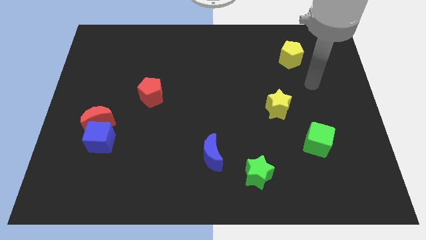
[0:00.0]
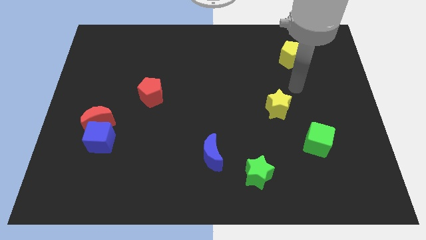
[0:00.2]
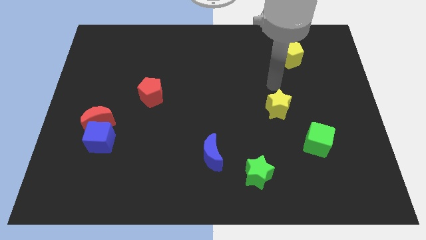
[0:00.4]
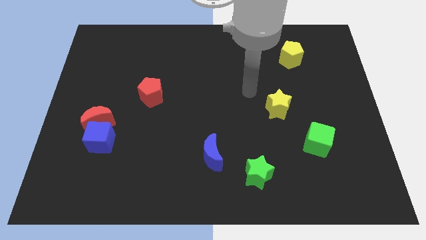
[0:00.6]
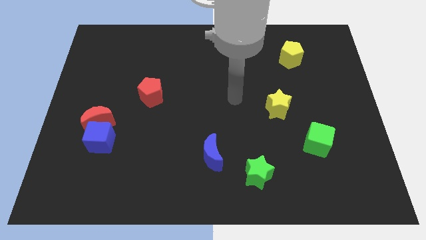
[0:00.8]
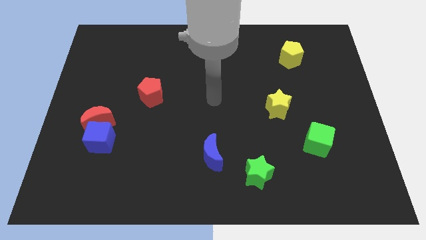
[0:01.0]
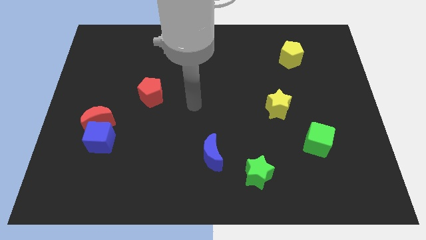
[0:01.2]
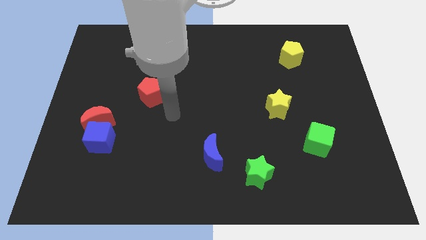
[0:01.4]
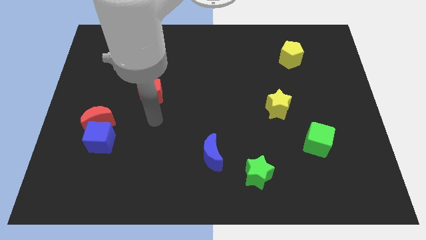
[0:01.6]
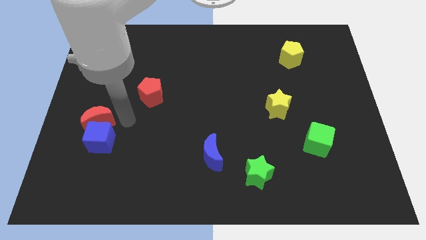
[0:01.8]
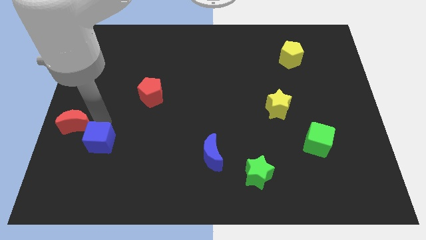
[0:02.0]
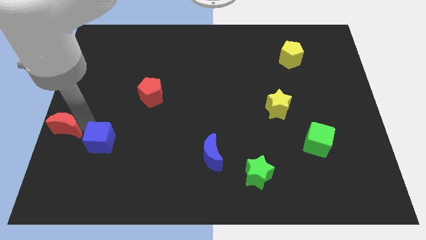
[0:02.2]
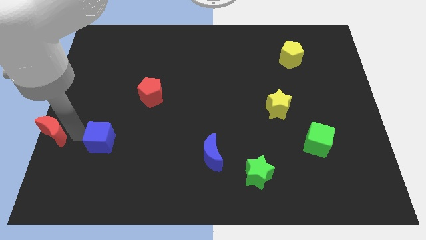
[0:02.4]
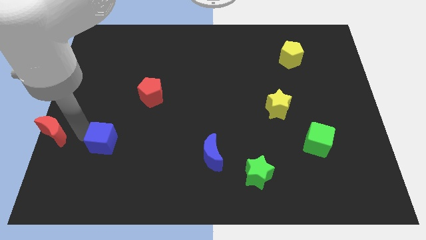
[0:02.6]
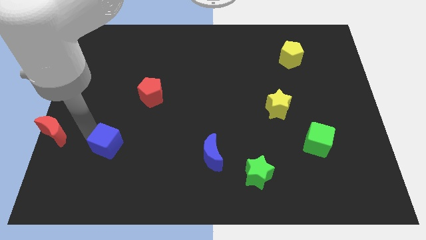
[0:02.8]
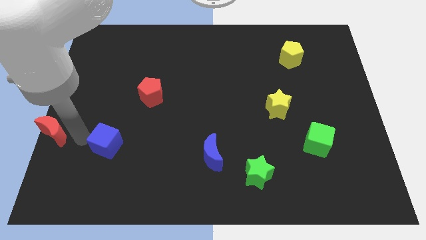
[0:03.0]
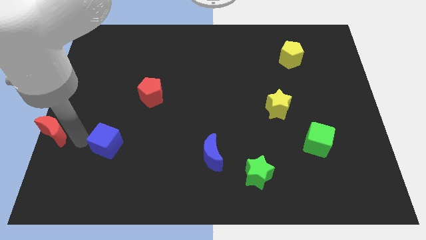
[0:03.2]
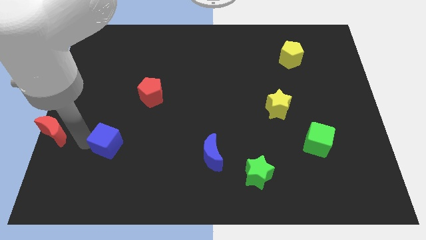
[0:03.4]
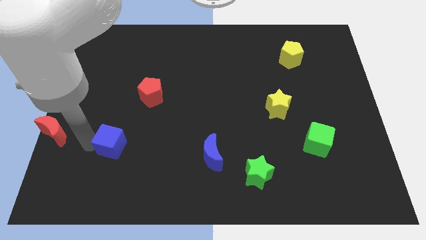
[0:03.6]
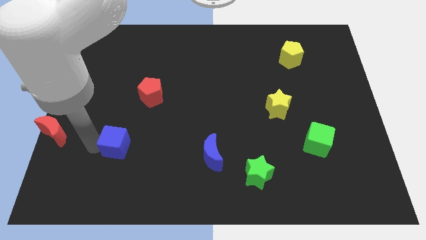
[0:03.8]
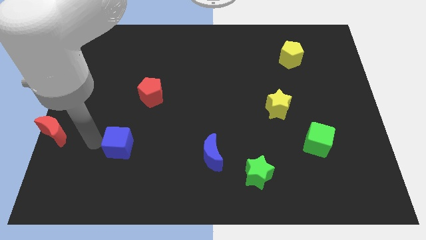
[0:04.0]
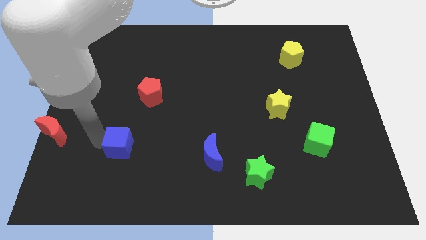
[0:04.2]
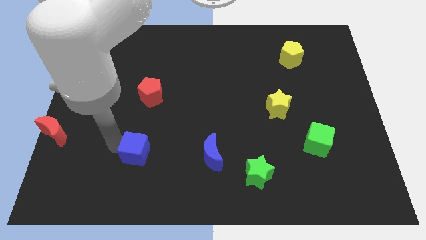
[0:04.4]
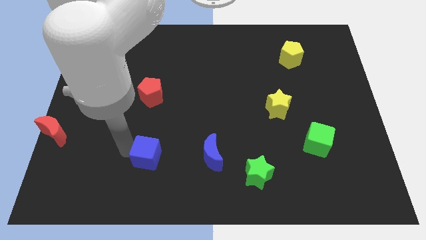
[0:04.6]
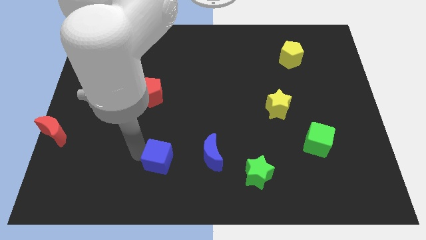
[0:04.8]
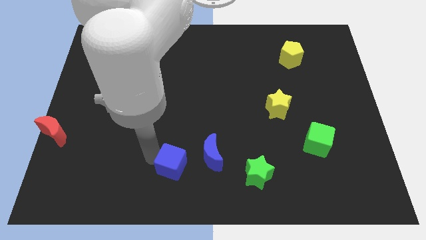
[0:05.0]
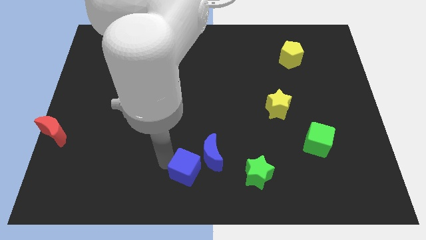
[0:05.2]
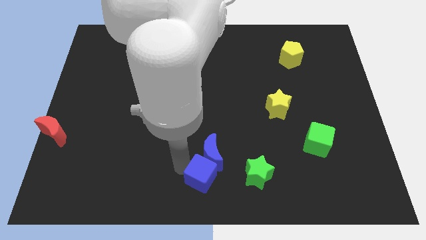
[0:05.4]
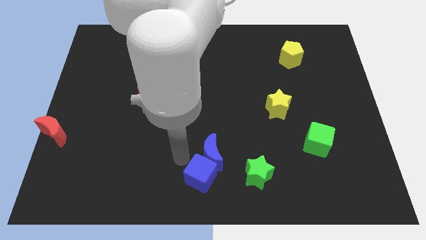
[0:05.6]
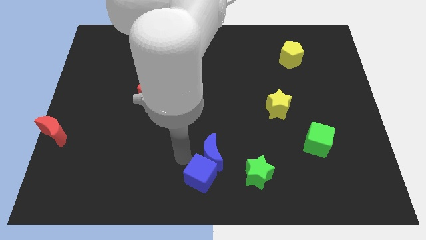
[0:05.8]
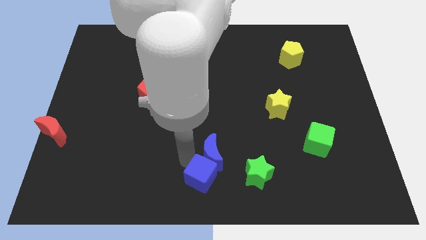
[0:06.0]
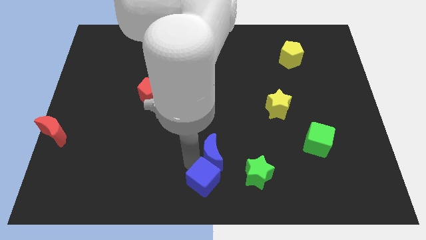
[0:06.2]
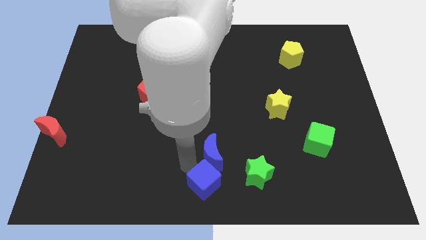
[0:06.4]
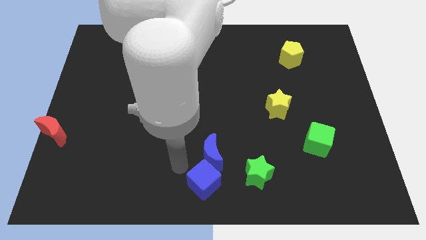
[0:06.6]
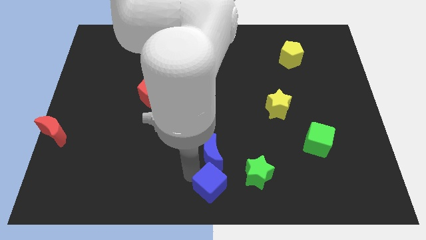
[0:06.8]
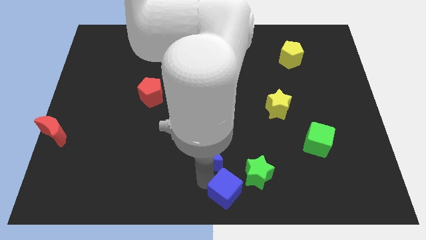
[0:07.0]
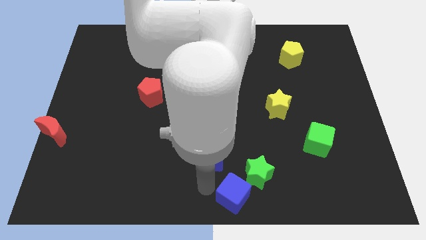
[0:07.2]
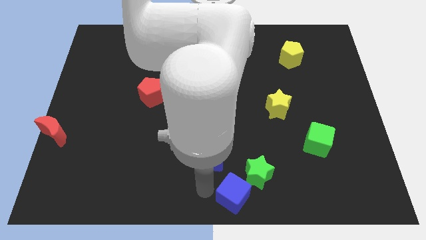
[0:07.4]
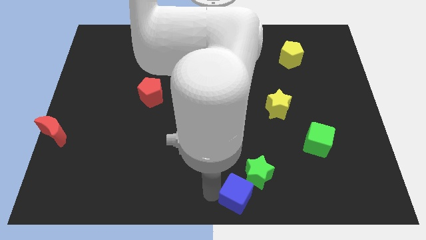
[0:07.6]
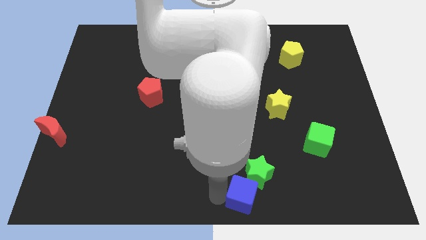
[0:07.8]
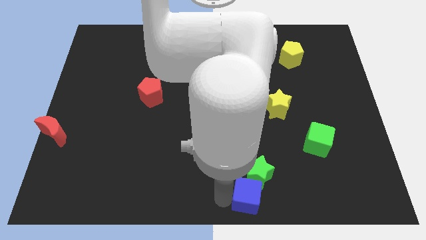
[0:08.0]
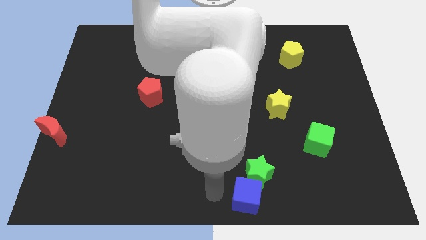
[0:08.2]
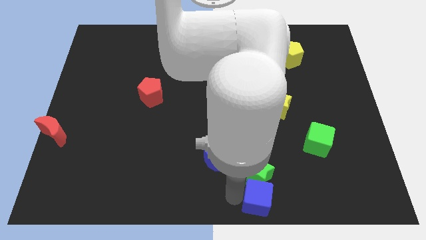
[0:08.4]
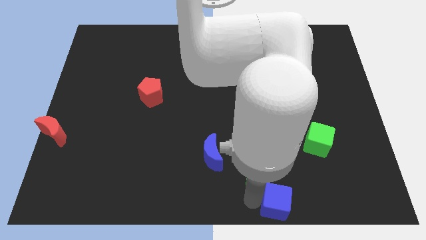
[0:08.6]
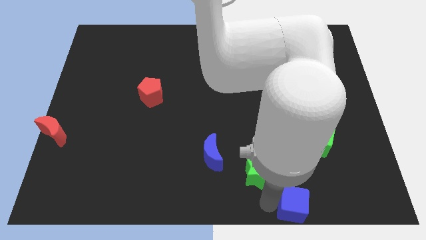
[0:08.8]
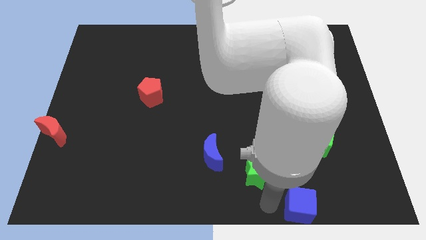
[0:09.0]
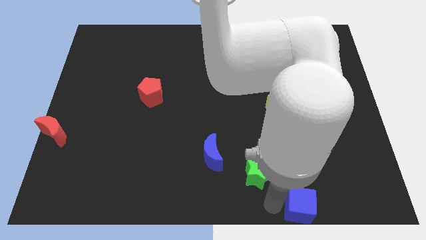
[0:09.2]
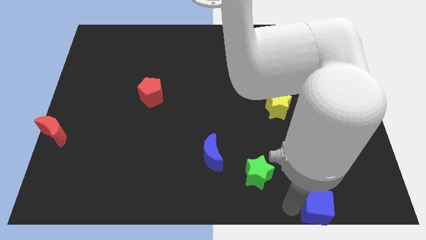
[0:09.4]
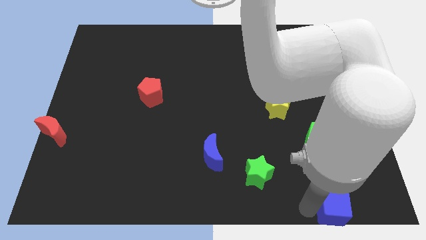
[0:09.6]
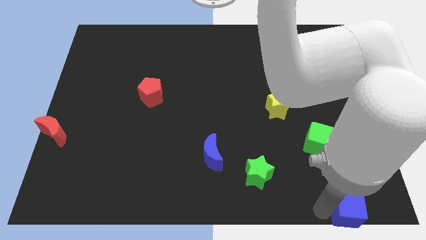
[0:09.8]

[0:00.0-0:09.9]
push the blue cube to the lower right corner

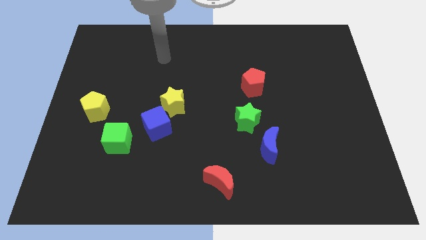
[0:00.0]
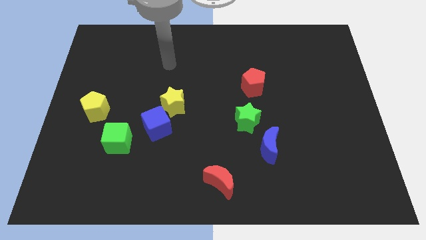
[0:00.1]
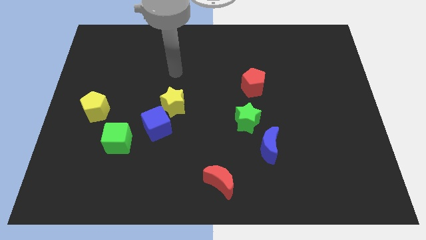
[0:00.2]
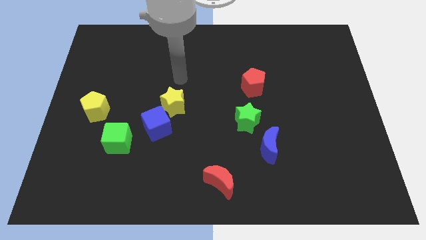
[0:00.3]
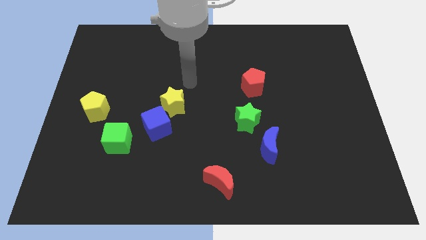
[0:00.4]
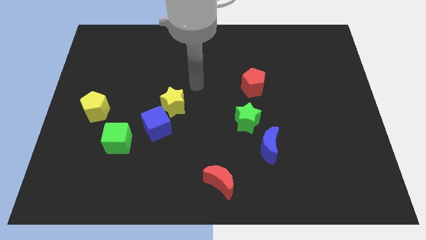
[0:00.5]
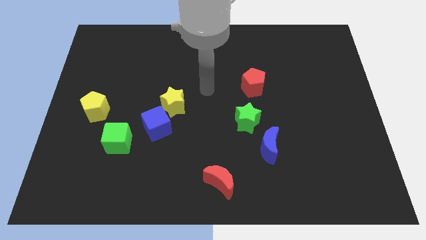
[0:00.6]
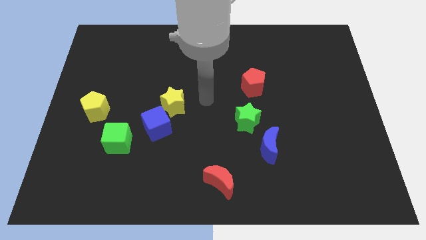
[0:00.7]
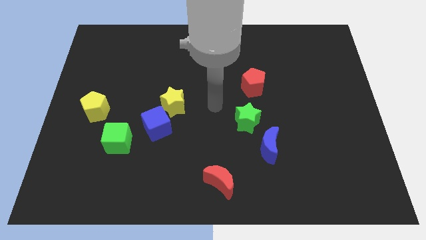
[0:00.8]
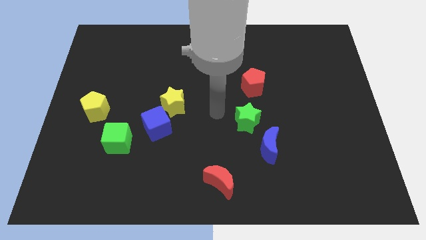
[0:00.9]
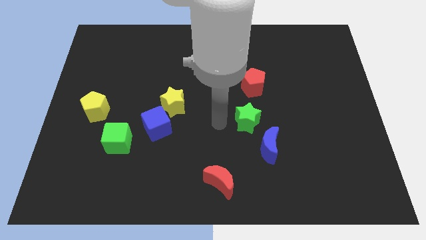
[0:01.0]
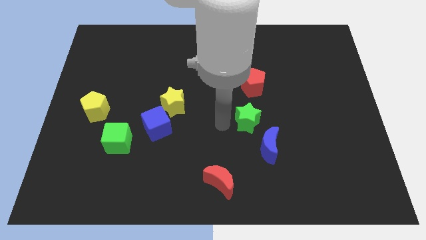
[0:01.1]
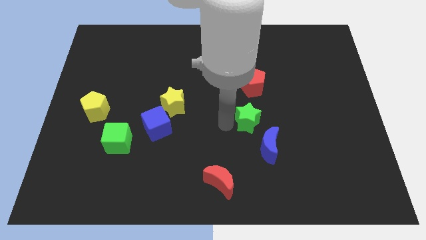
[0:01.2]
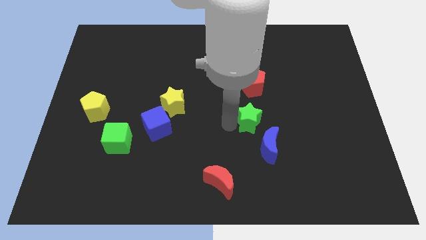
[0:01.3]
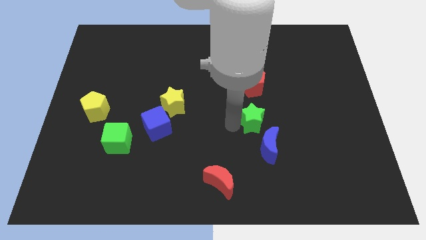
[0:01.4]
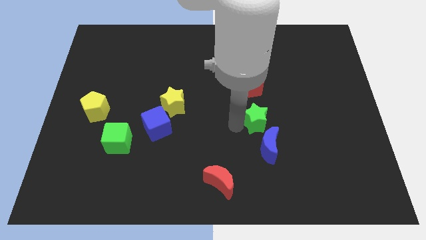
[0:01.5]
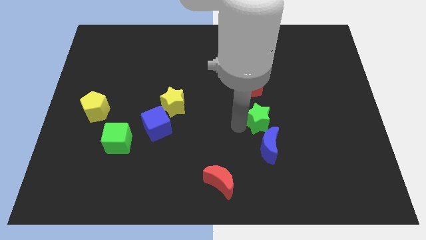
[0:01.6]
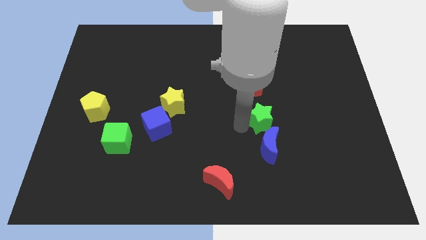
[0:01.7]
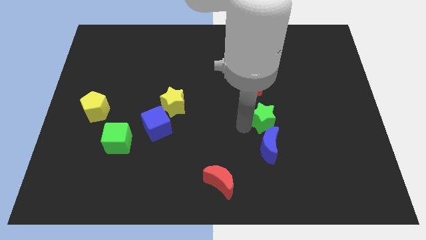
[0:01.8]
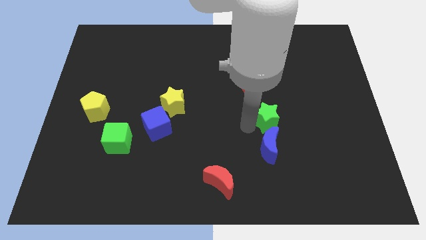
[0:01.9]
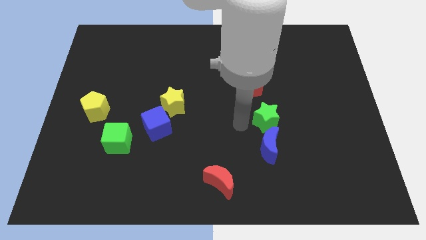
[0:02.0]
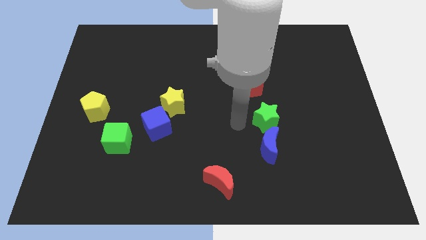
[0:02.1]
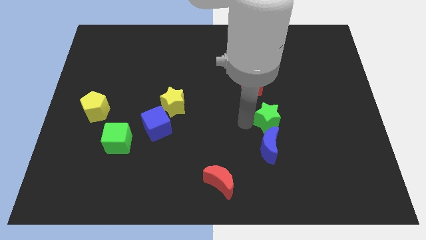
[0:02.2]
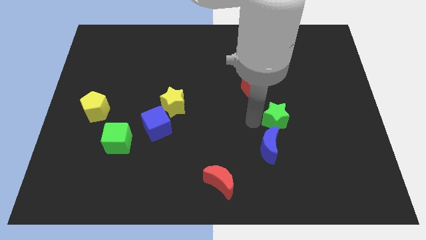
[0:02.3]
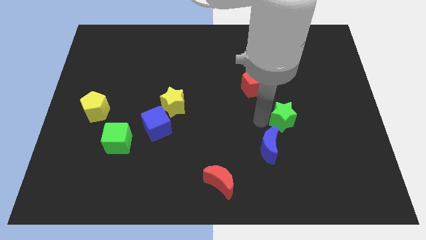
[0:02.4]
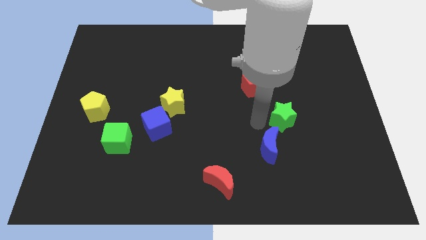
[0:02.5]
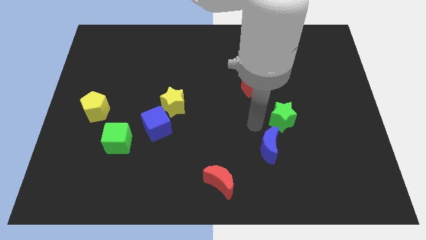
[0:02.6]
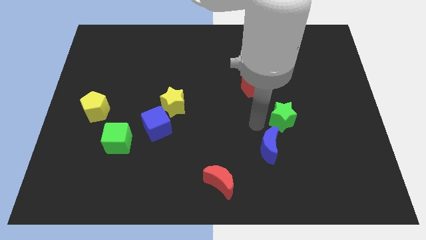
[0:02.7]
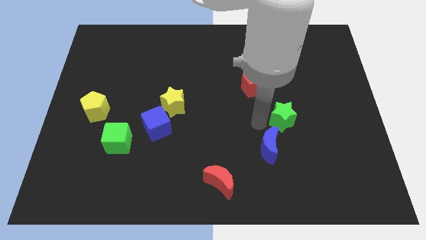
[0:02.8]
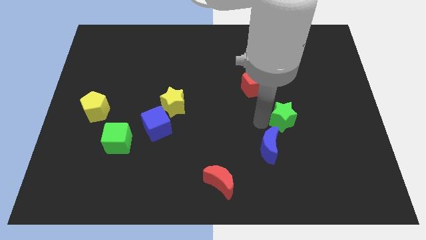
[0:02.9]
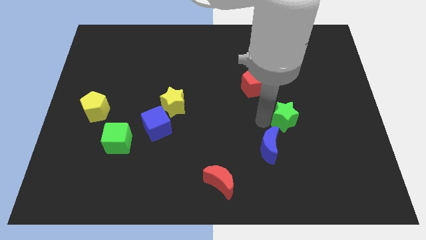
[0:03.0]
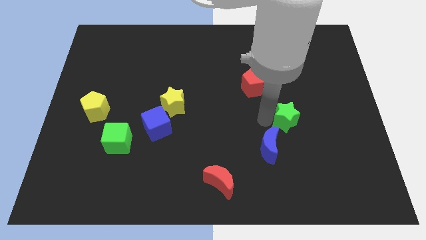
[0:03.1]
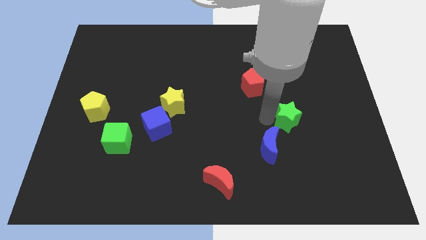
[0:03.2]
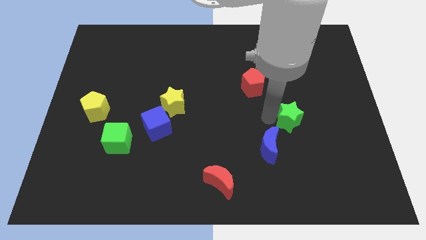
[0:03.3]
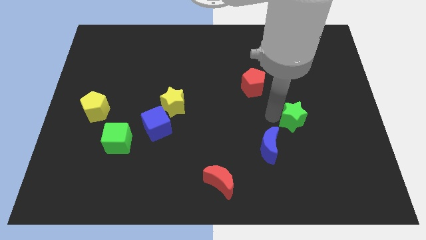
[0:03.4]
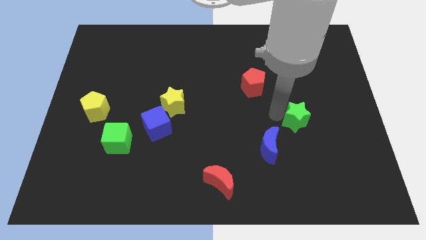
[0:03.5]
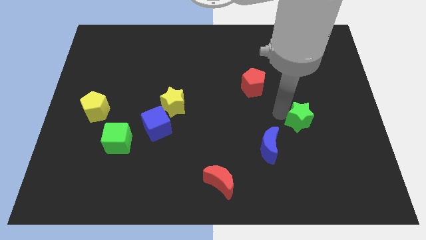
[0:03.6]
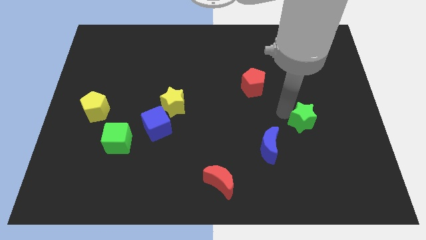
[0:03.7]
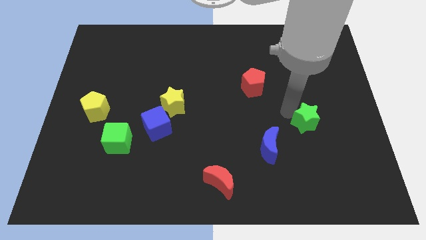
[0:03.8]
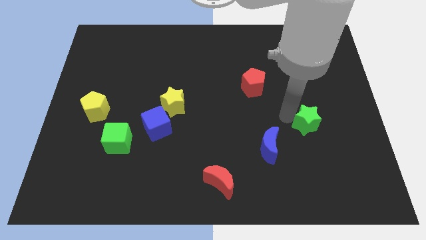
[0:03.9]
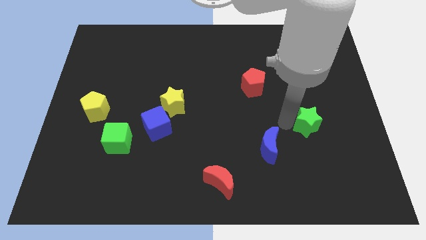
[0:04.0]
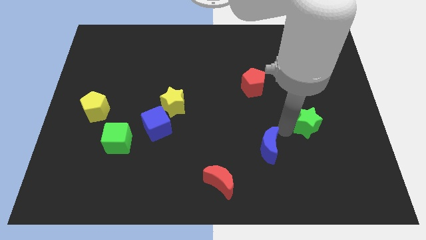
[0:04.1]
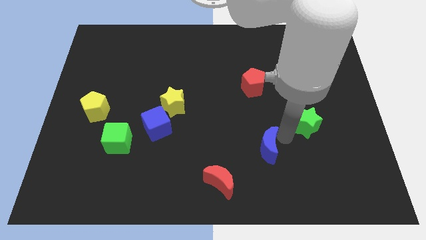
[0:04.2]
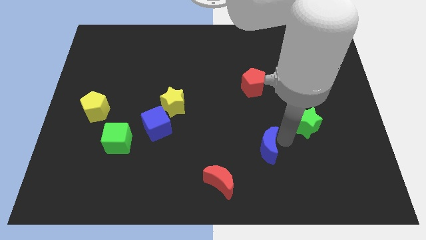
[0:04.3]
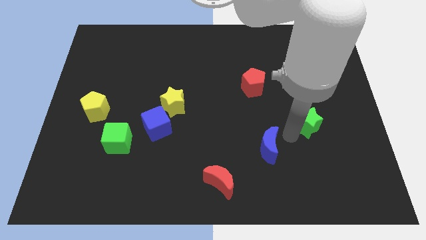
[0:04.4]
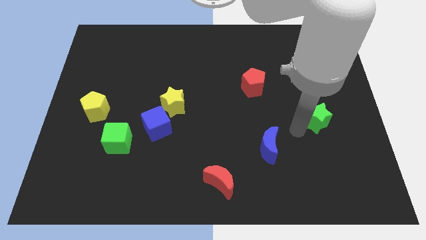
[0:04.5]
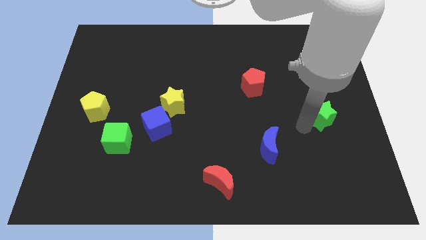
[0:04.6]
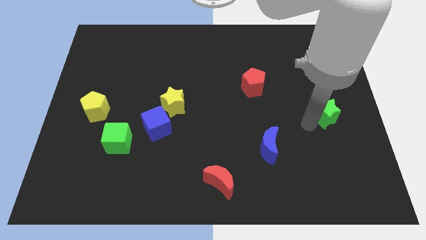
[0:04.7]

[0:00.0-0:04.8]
put the green star to the right side
